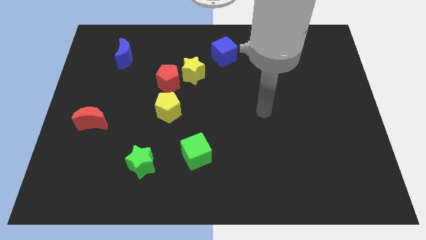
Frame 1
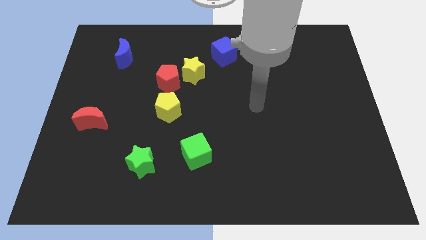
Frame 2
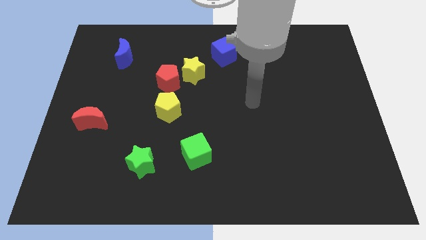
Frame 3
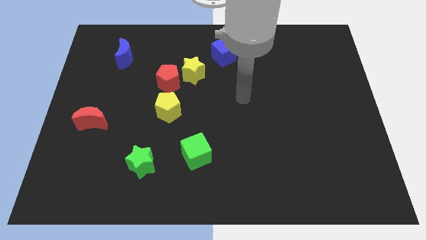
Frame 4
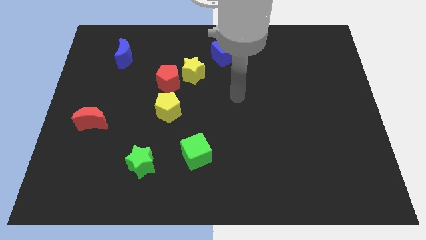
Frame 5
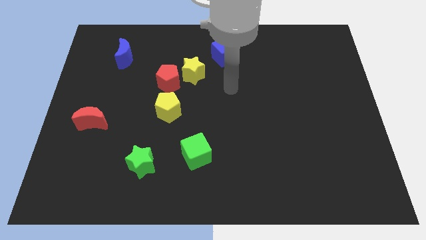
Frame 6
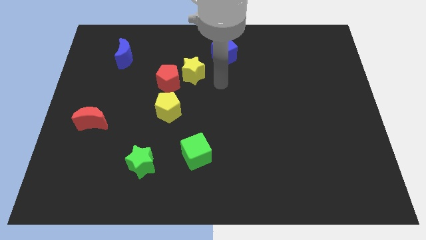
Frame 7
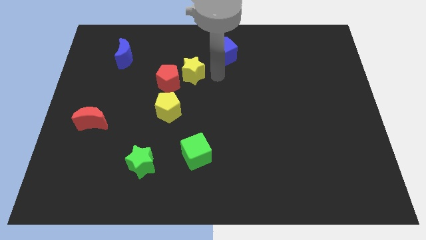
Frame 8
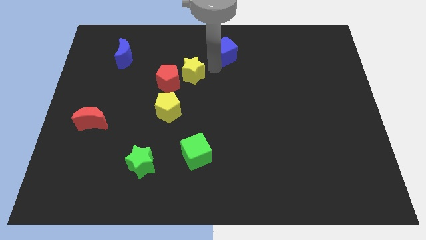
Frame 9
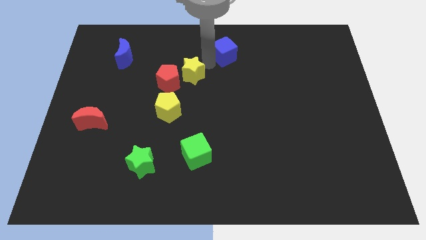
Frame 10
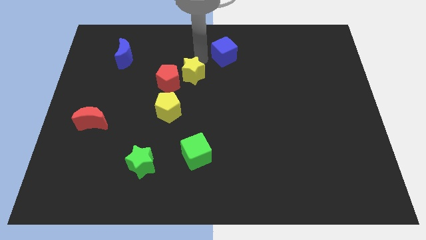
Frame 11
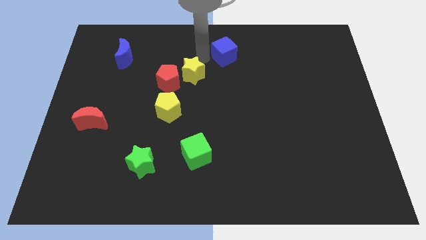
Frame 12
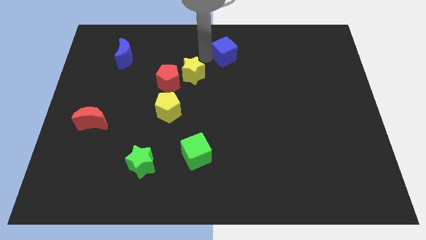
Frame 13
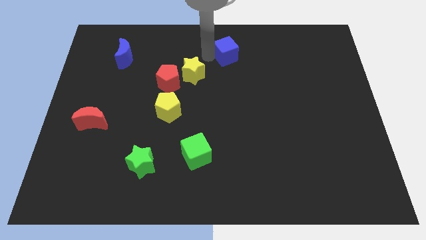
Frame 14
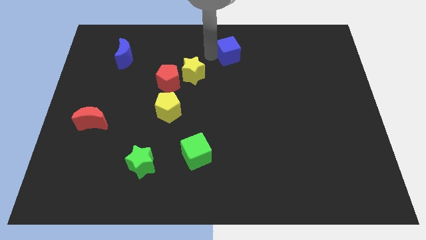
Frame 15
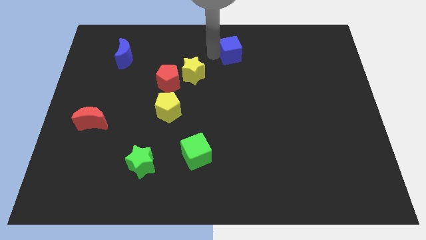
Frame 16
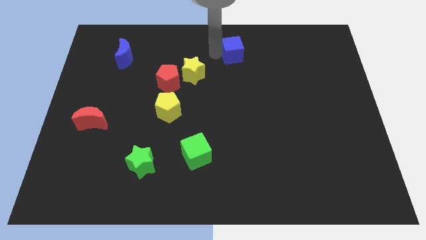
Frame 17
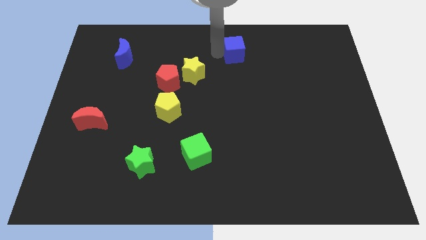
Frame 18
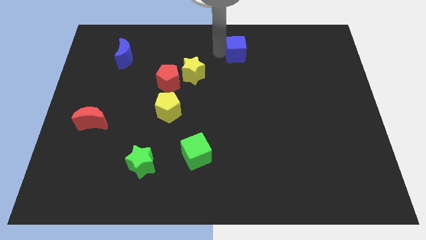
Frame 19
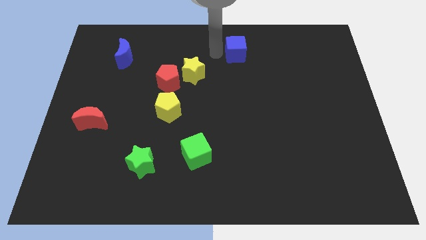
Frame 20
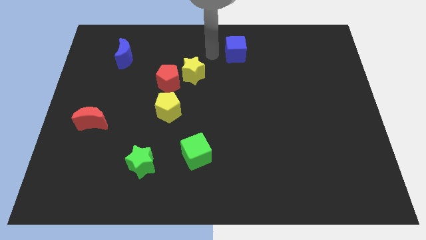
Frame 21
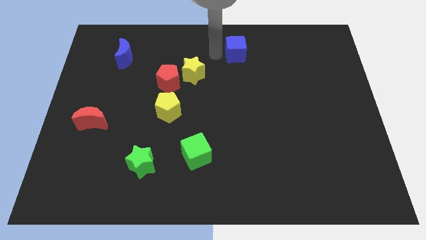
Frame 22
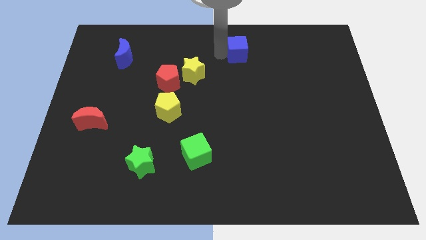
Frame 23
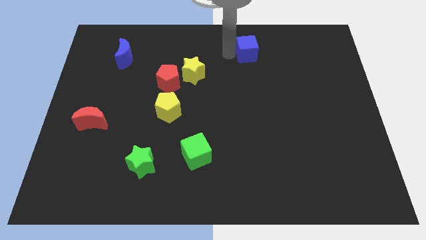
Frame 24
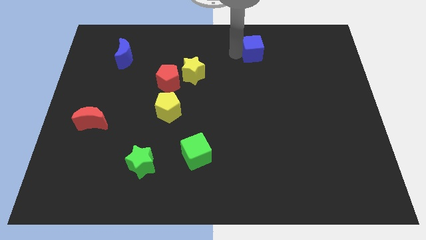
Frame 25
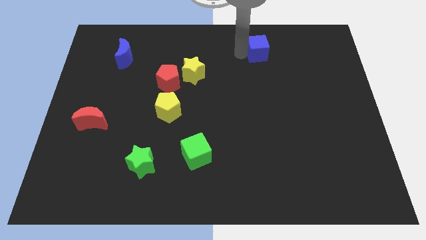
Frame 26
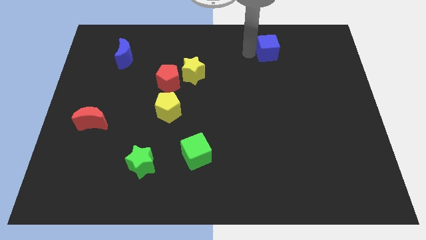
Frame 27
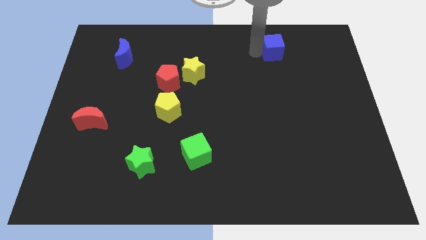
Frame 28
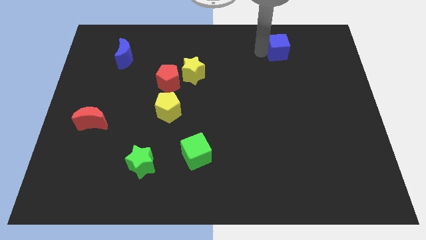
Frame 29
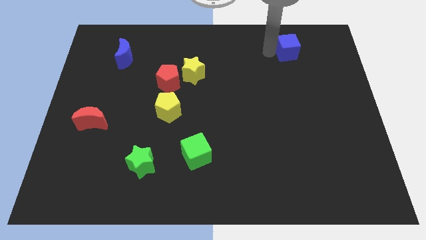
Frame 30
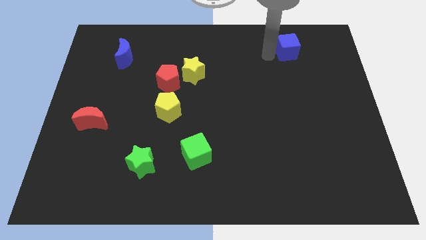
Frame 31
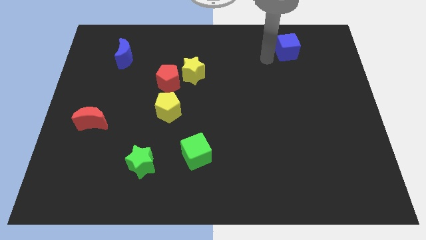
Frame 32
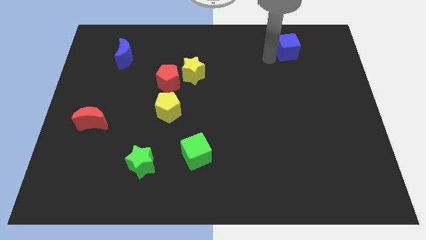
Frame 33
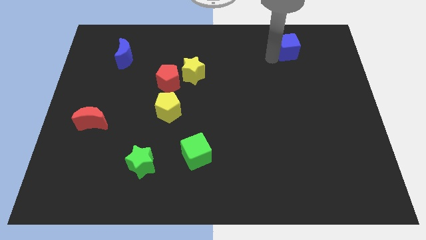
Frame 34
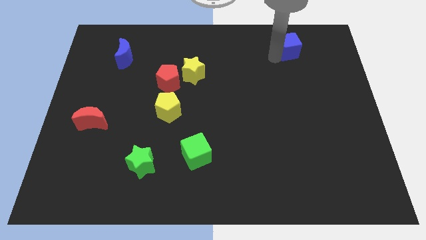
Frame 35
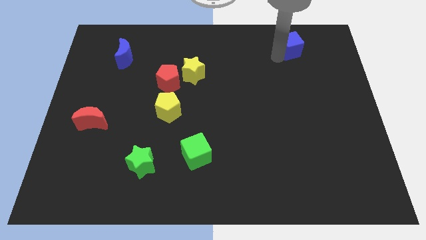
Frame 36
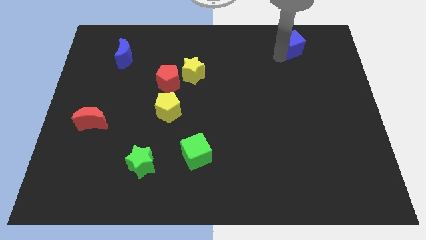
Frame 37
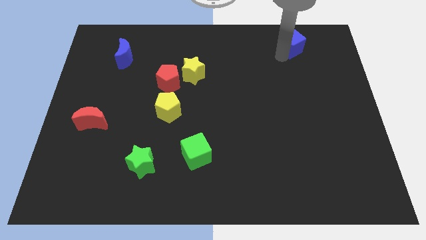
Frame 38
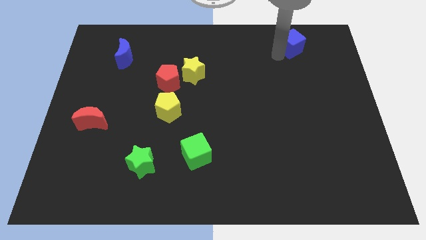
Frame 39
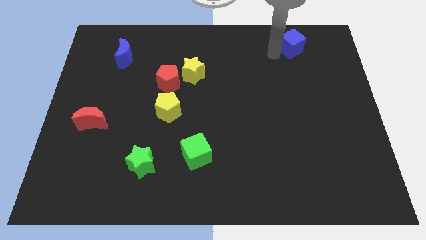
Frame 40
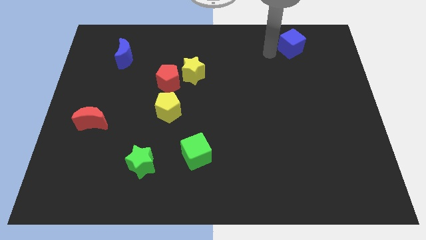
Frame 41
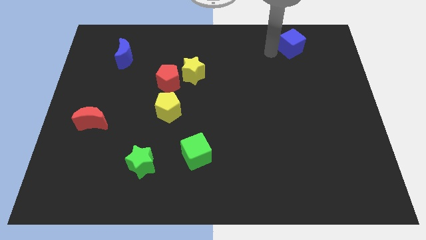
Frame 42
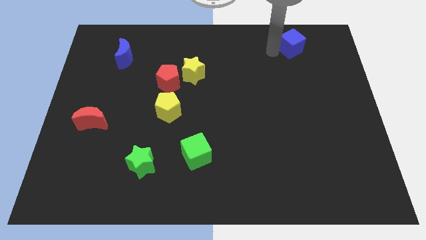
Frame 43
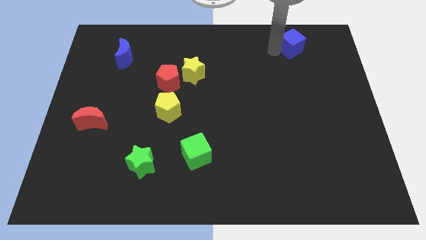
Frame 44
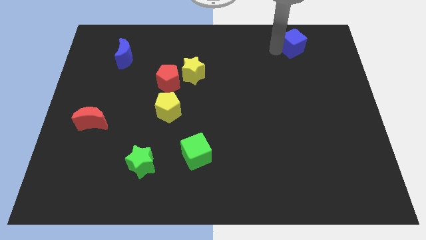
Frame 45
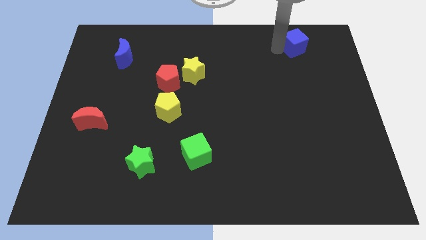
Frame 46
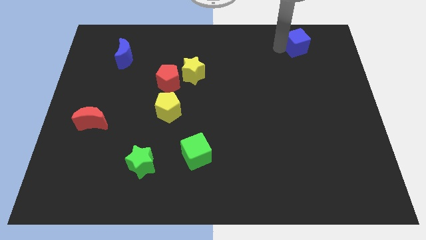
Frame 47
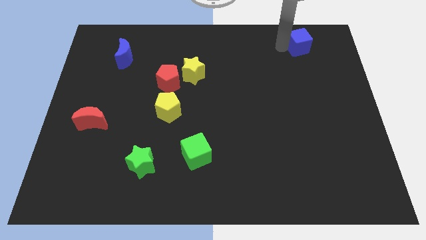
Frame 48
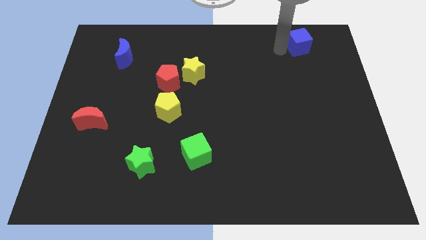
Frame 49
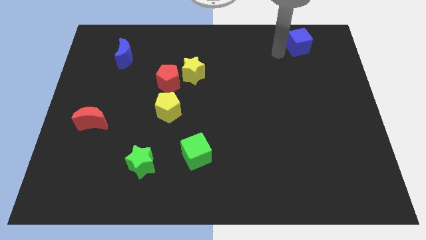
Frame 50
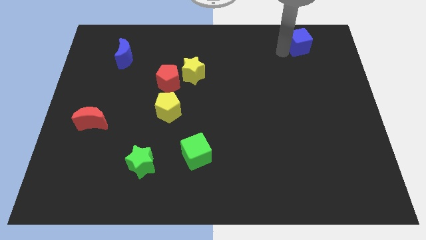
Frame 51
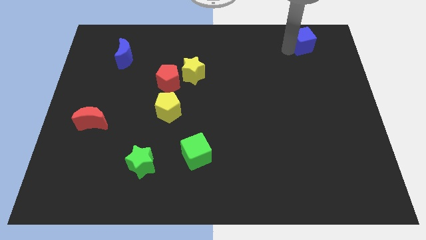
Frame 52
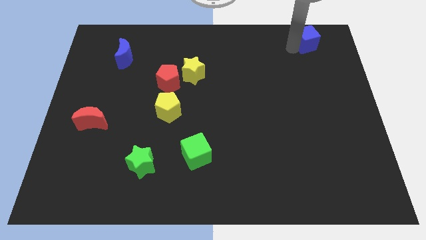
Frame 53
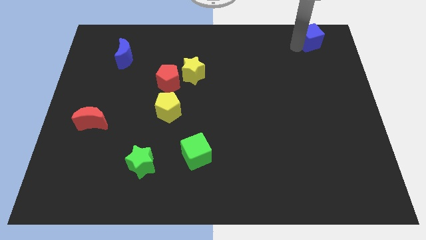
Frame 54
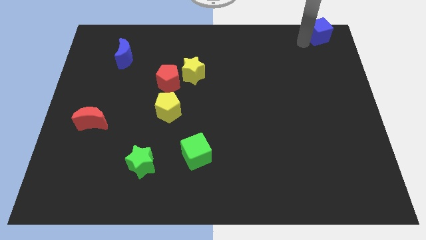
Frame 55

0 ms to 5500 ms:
push the blue cube to the top right
